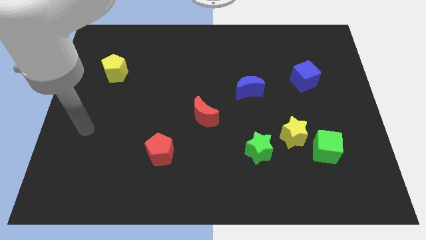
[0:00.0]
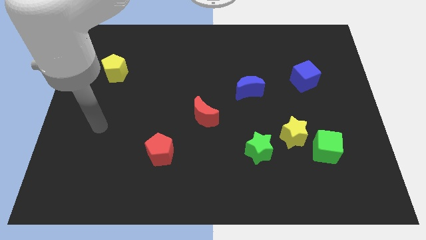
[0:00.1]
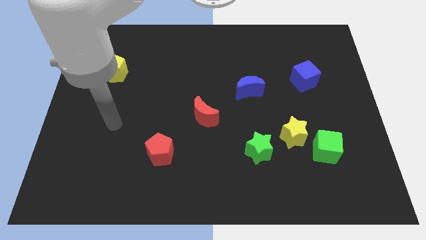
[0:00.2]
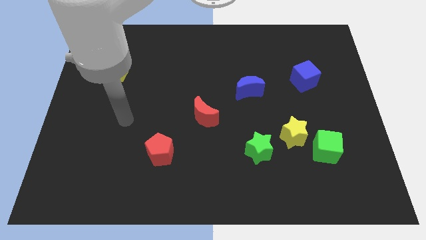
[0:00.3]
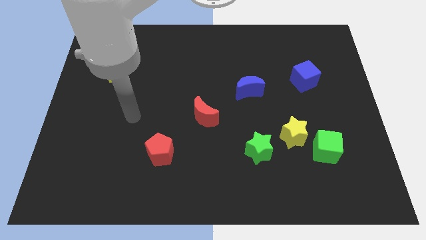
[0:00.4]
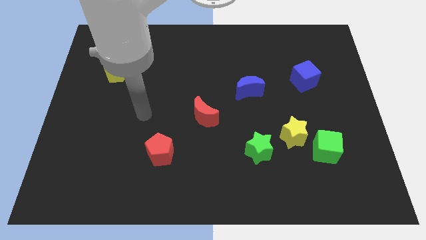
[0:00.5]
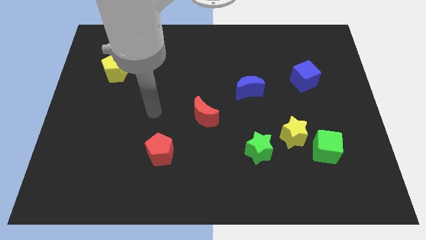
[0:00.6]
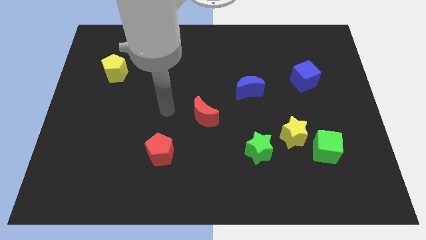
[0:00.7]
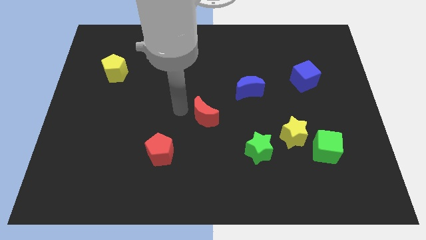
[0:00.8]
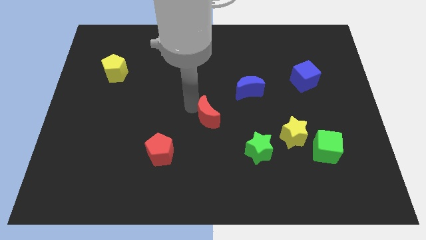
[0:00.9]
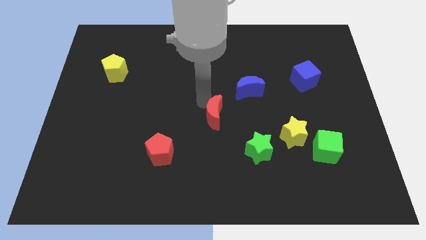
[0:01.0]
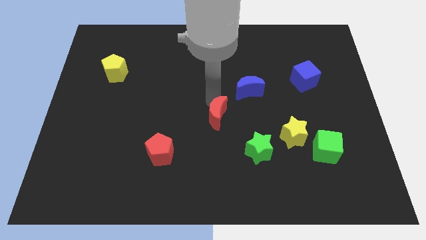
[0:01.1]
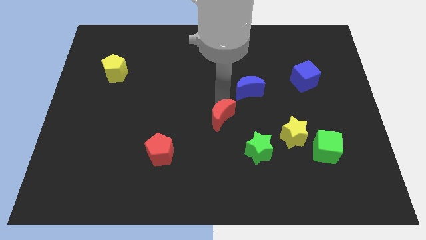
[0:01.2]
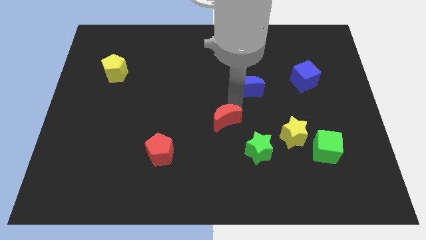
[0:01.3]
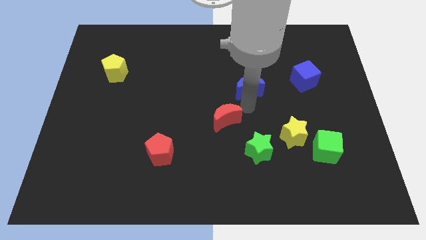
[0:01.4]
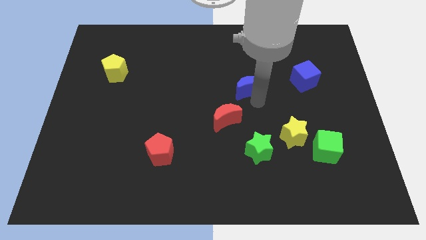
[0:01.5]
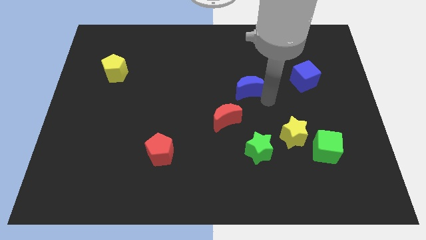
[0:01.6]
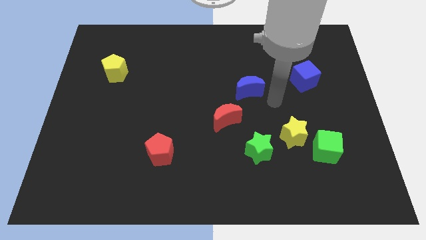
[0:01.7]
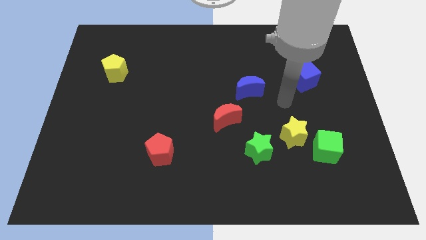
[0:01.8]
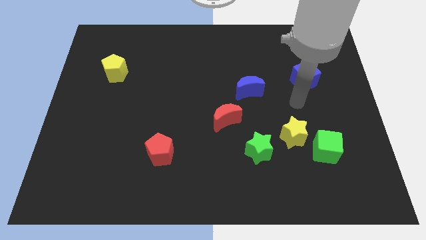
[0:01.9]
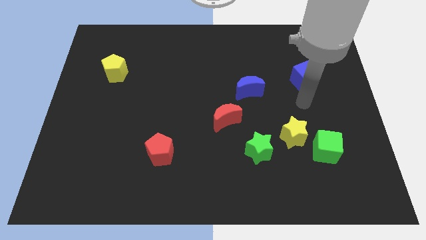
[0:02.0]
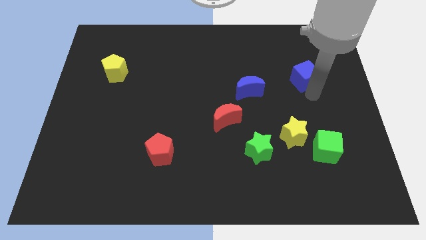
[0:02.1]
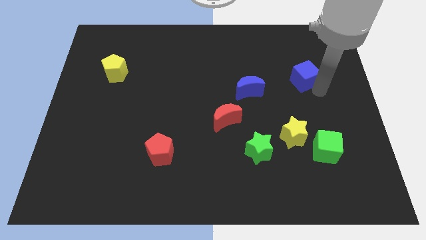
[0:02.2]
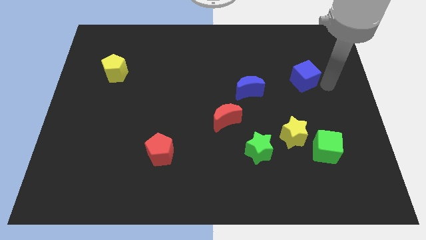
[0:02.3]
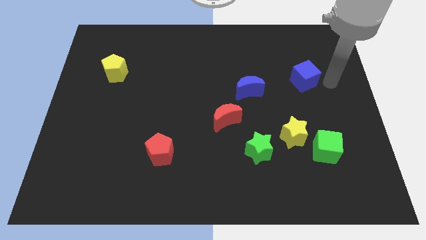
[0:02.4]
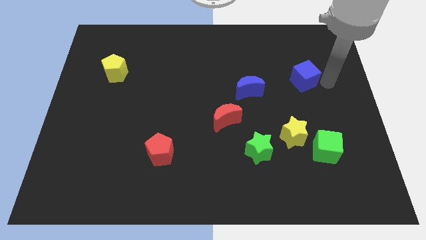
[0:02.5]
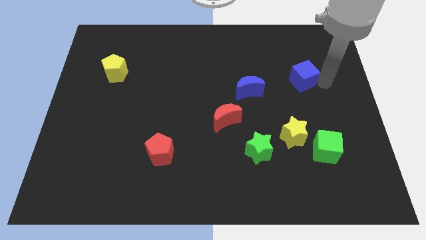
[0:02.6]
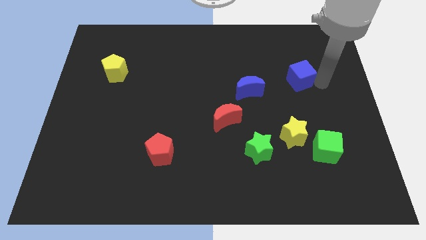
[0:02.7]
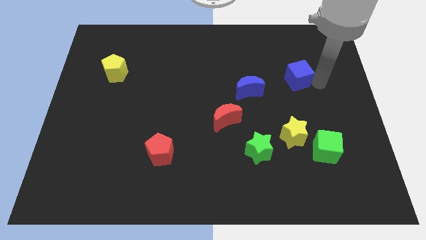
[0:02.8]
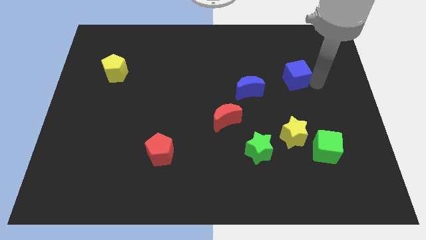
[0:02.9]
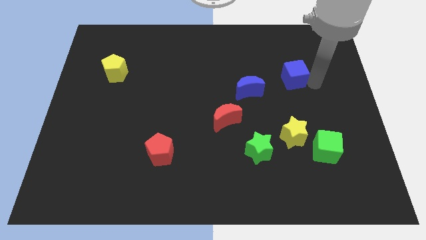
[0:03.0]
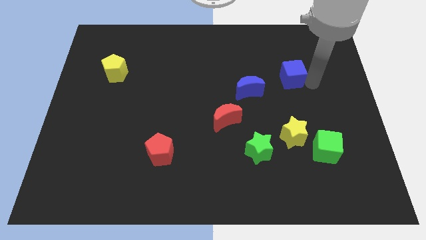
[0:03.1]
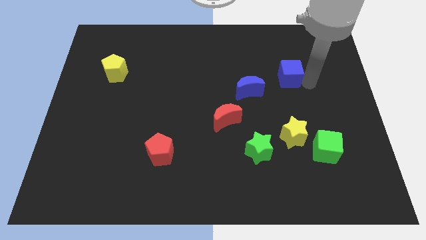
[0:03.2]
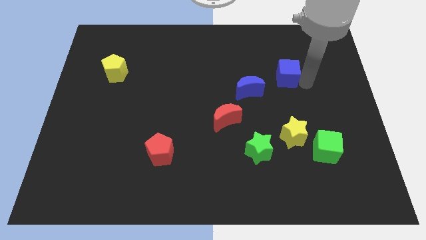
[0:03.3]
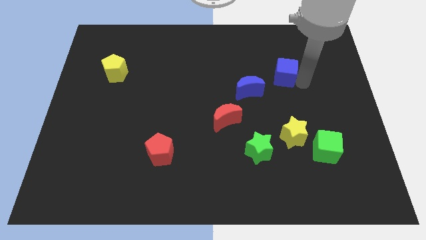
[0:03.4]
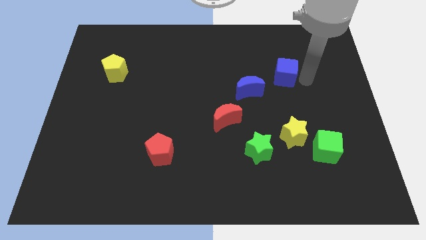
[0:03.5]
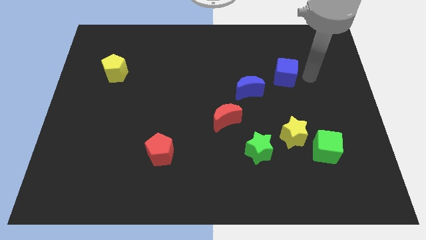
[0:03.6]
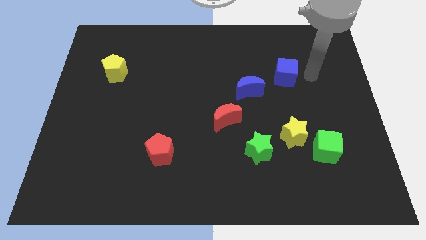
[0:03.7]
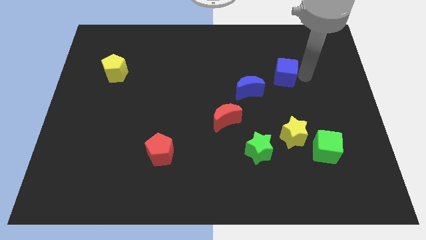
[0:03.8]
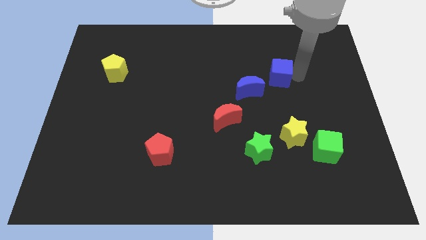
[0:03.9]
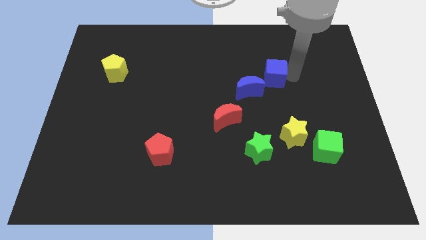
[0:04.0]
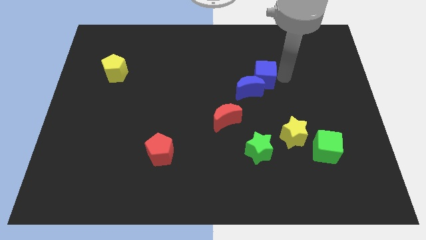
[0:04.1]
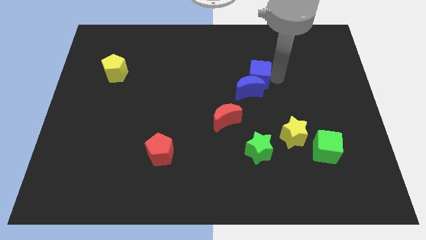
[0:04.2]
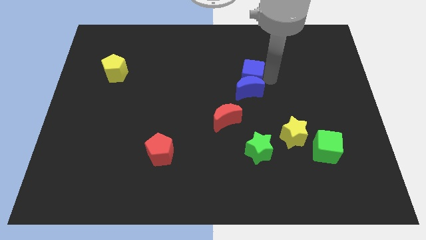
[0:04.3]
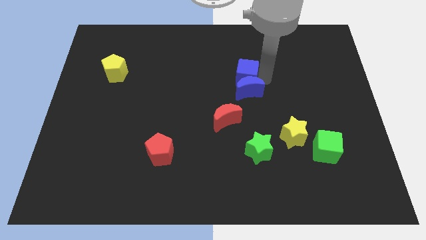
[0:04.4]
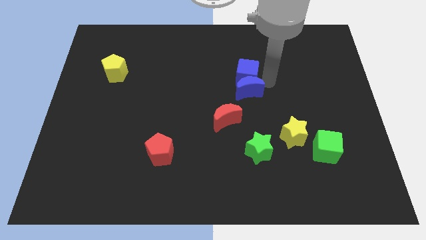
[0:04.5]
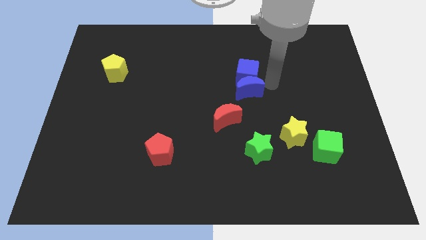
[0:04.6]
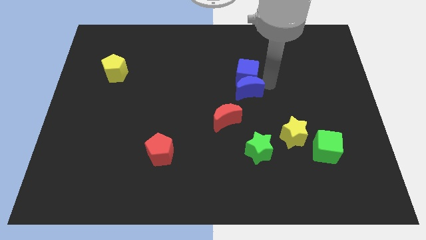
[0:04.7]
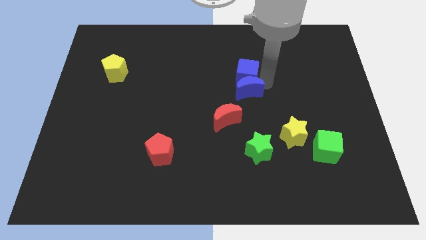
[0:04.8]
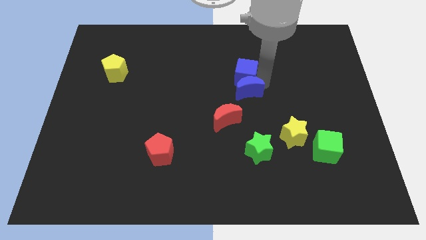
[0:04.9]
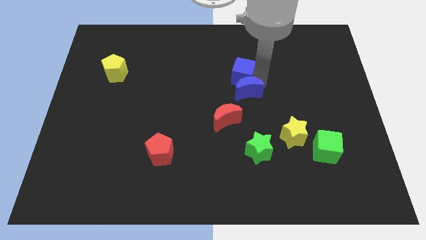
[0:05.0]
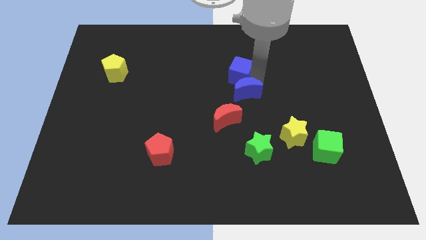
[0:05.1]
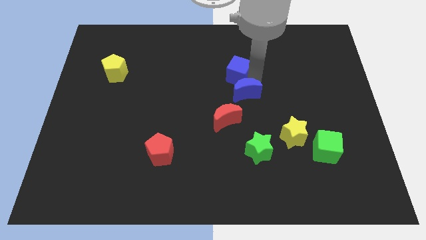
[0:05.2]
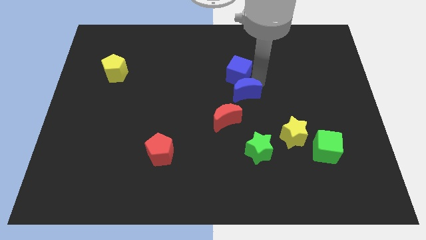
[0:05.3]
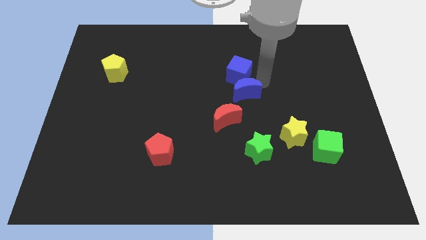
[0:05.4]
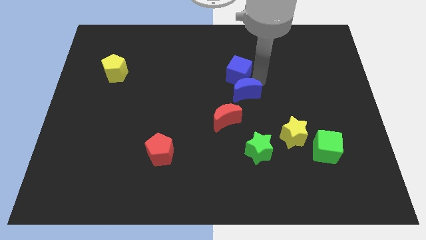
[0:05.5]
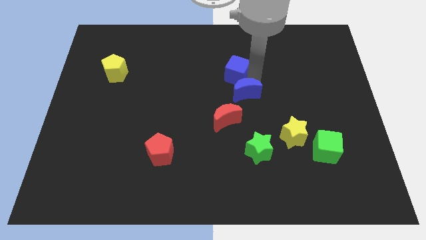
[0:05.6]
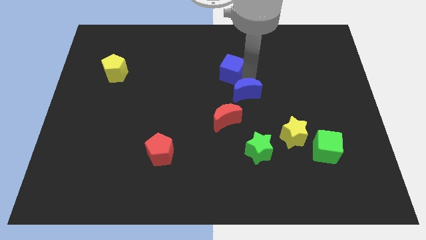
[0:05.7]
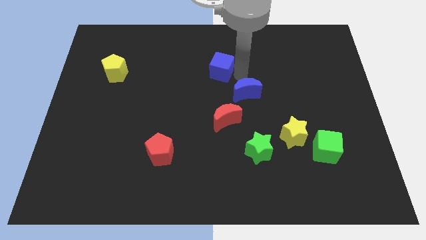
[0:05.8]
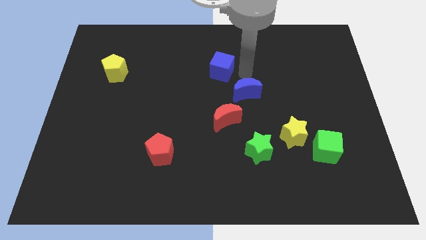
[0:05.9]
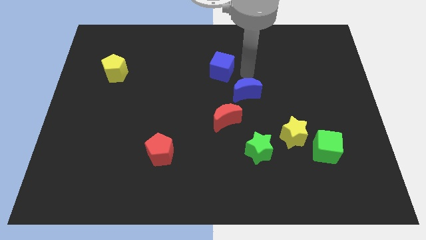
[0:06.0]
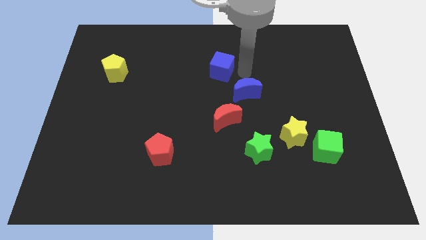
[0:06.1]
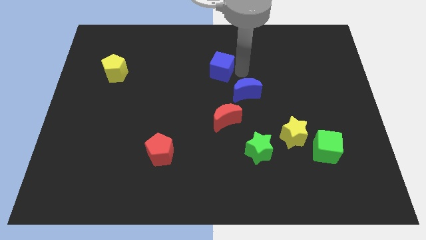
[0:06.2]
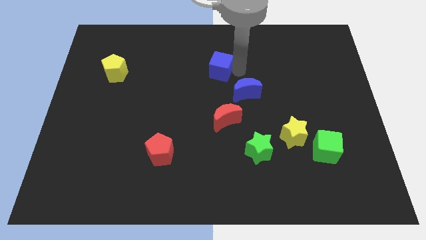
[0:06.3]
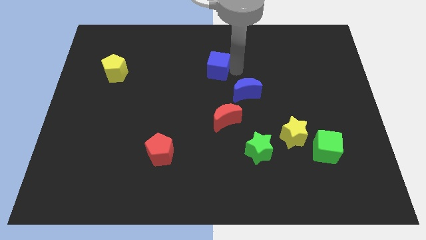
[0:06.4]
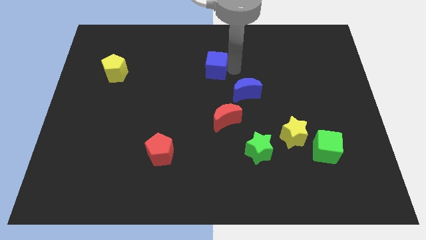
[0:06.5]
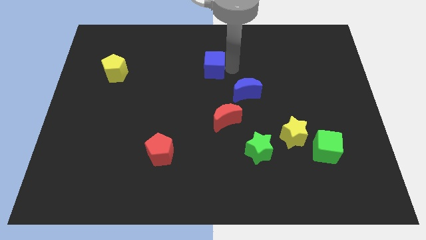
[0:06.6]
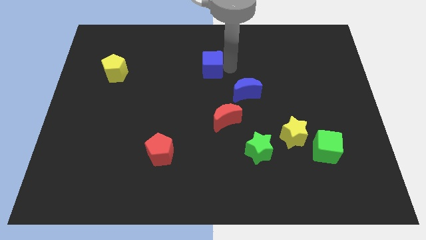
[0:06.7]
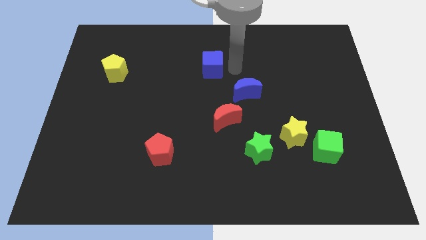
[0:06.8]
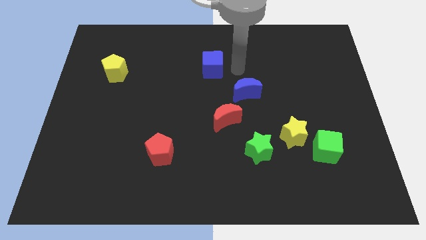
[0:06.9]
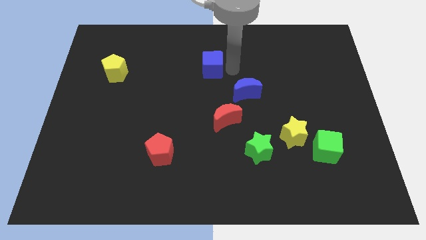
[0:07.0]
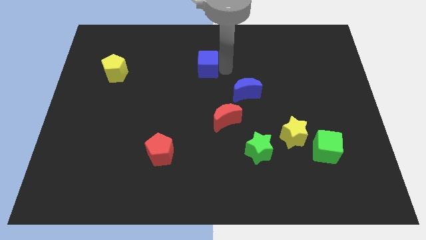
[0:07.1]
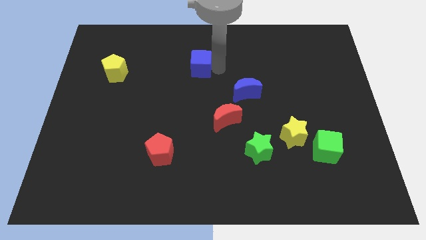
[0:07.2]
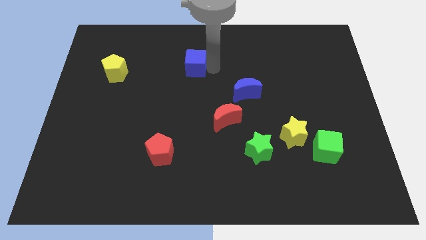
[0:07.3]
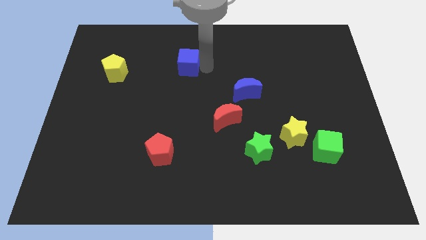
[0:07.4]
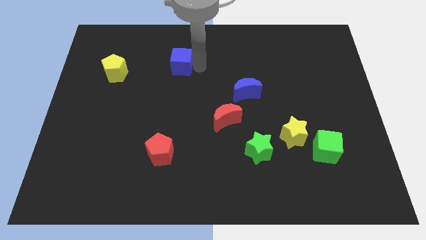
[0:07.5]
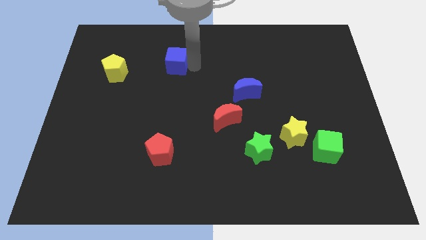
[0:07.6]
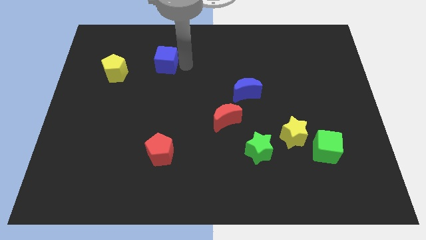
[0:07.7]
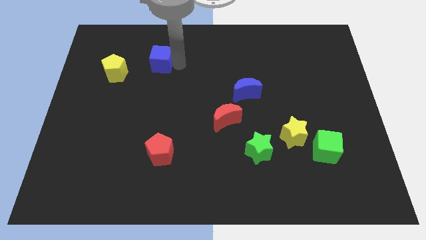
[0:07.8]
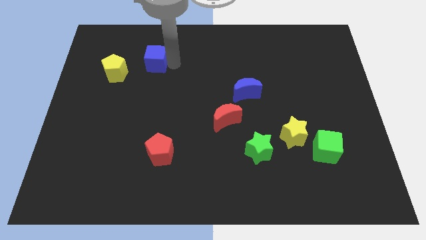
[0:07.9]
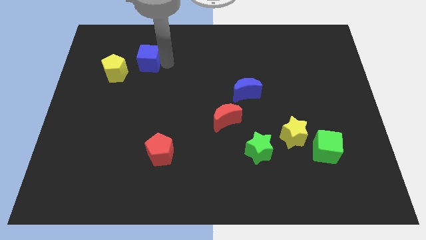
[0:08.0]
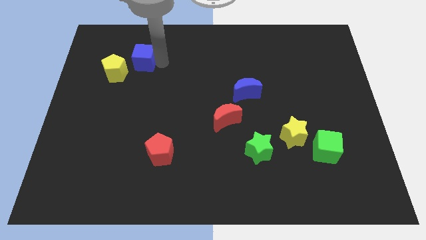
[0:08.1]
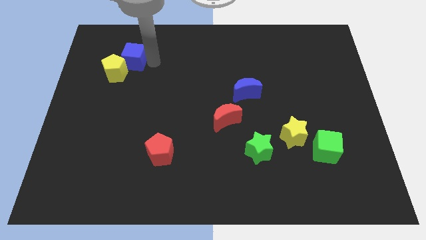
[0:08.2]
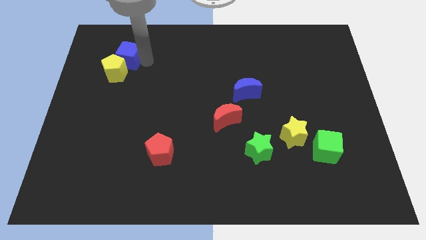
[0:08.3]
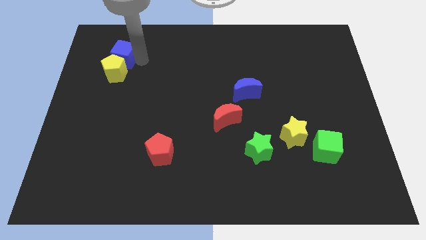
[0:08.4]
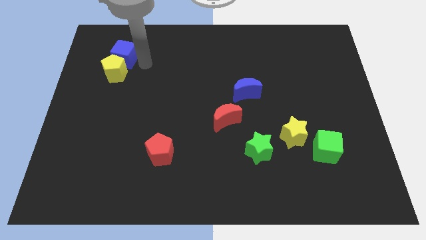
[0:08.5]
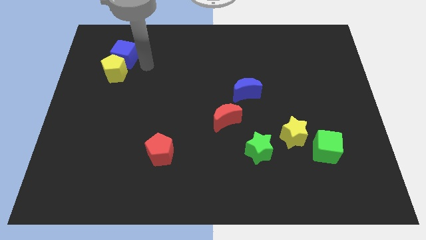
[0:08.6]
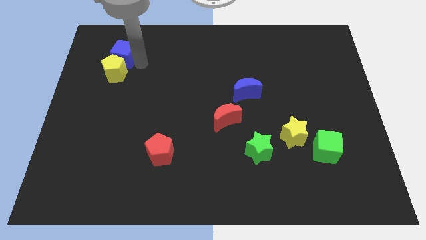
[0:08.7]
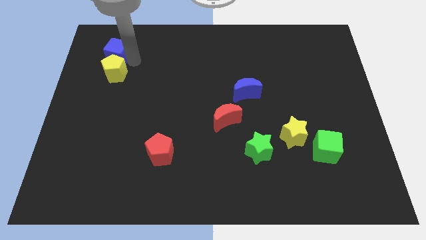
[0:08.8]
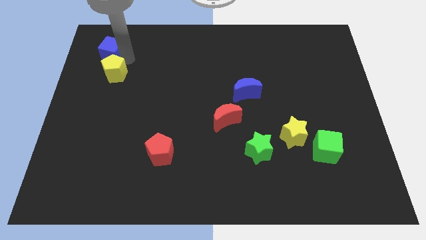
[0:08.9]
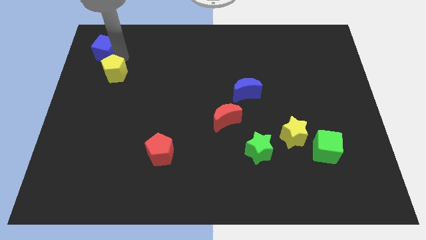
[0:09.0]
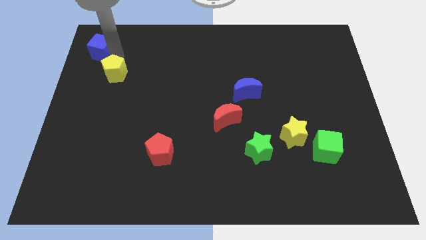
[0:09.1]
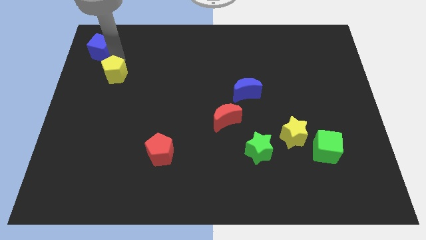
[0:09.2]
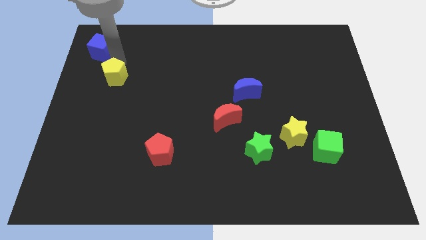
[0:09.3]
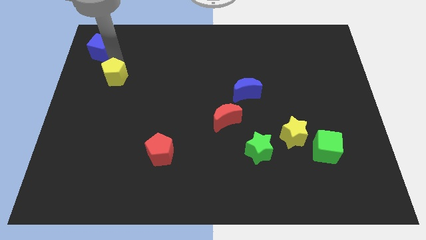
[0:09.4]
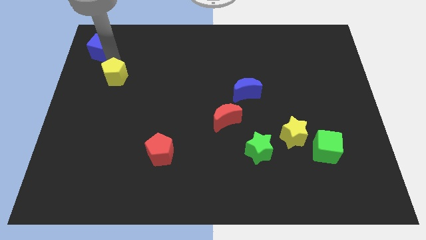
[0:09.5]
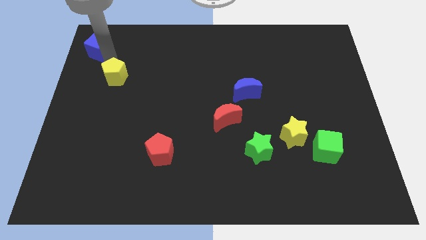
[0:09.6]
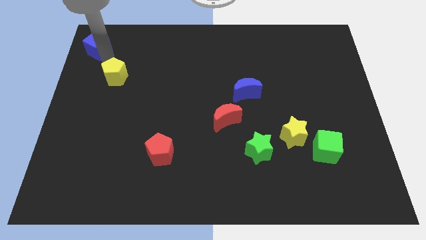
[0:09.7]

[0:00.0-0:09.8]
put the blue cube to the top left corner
